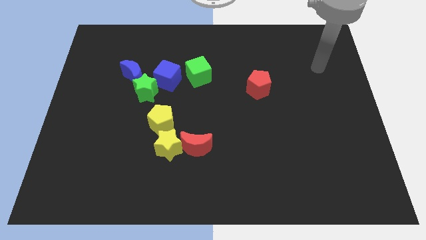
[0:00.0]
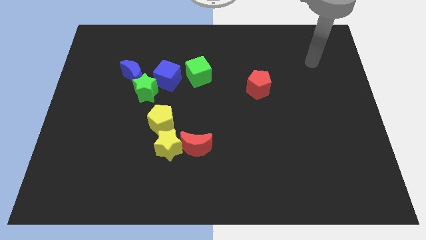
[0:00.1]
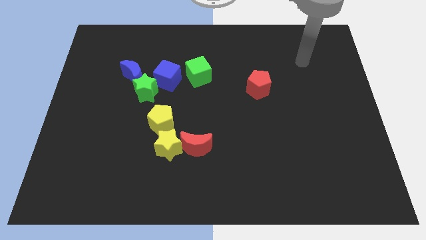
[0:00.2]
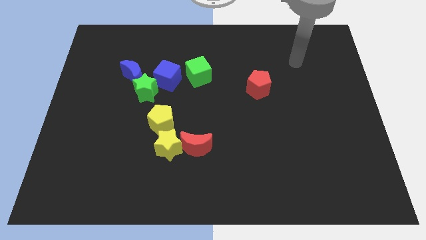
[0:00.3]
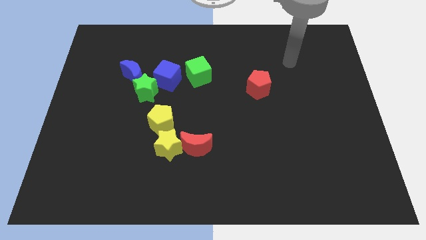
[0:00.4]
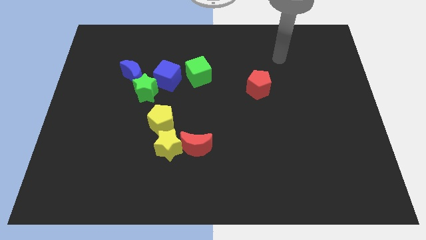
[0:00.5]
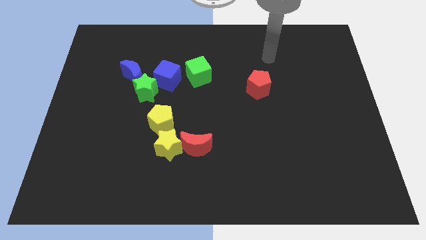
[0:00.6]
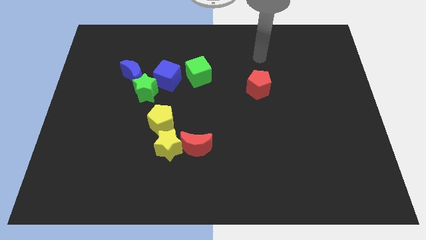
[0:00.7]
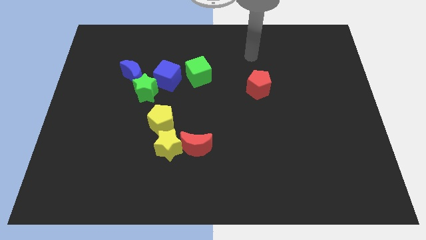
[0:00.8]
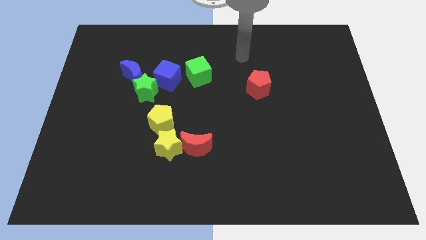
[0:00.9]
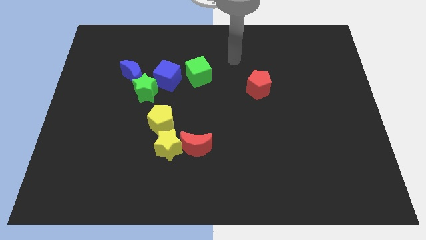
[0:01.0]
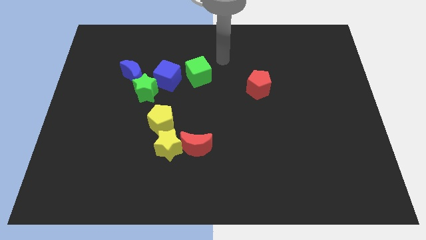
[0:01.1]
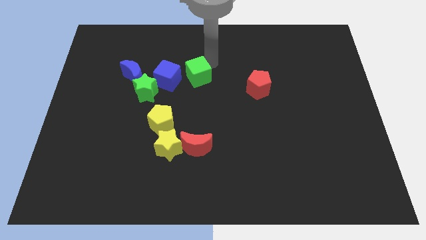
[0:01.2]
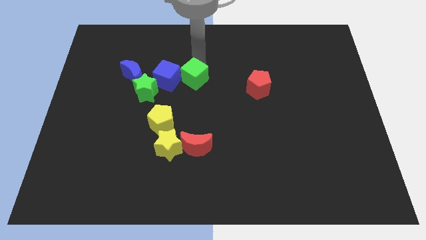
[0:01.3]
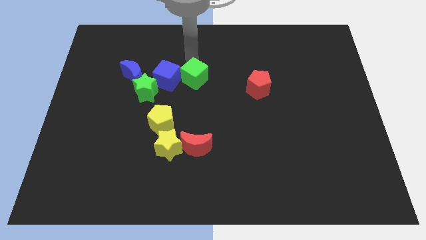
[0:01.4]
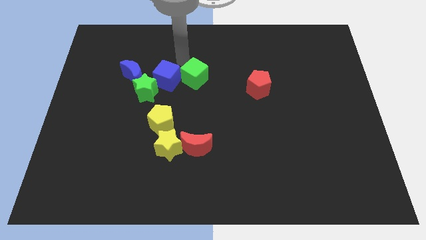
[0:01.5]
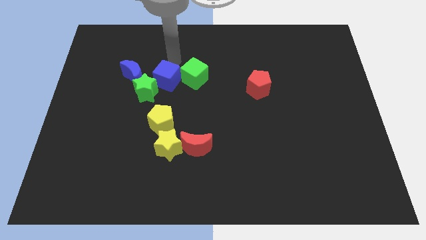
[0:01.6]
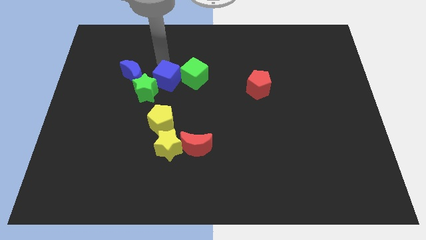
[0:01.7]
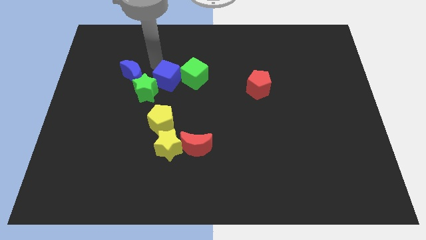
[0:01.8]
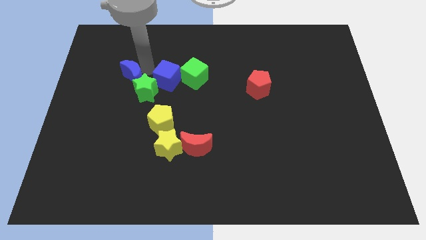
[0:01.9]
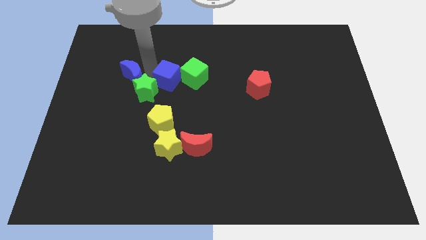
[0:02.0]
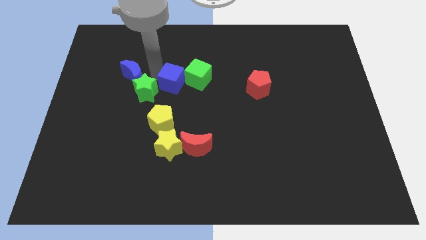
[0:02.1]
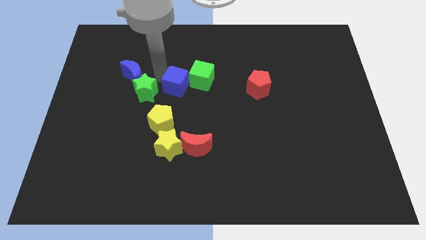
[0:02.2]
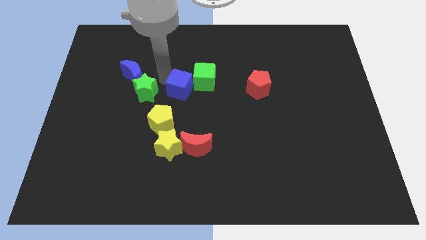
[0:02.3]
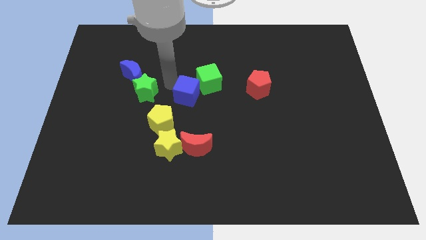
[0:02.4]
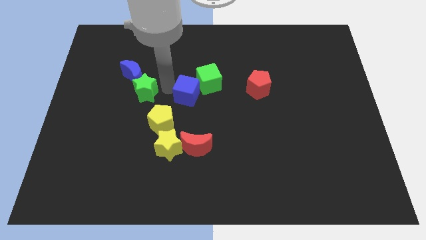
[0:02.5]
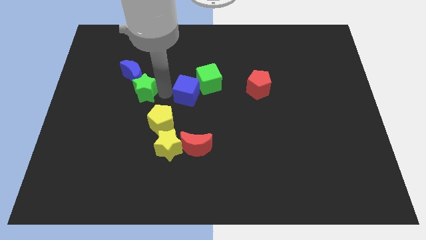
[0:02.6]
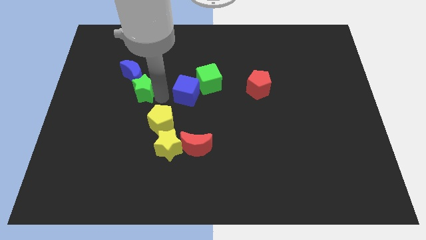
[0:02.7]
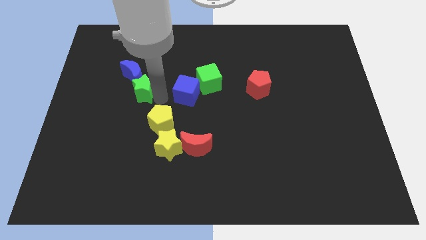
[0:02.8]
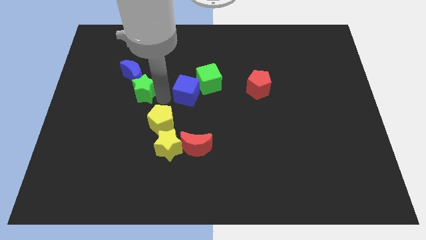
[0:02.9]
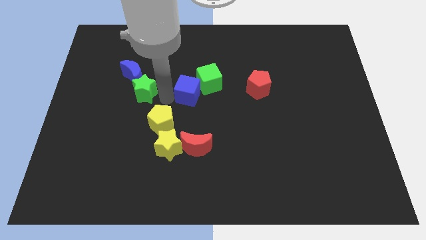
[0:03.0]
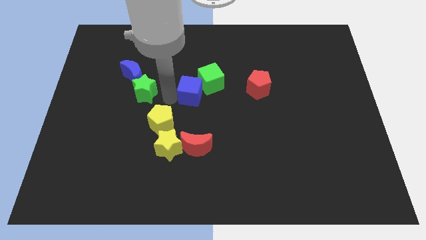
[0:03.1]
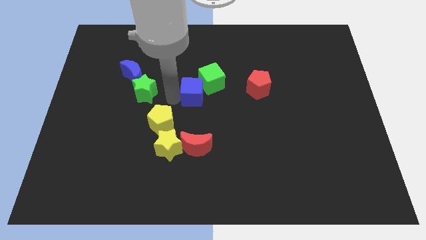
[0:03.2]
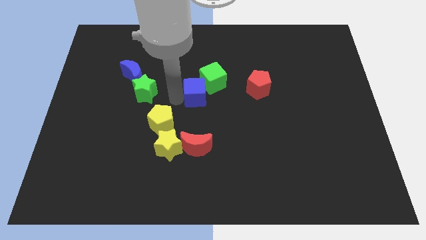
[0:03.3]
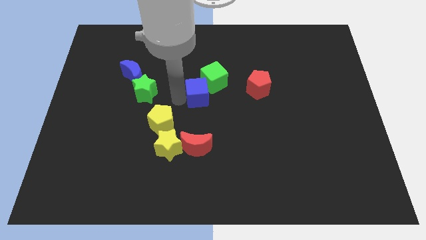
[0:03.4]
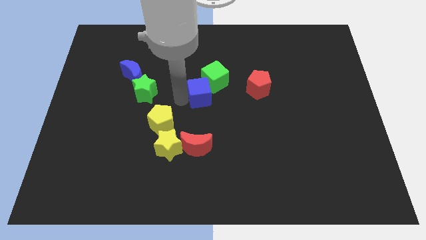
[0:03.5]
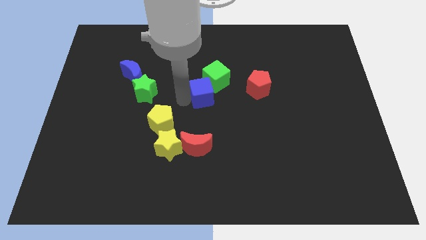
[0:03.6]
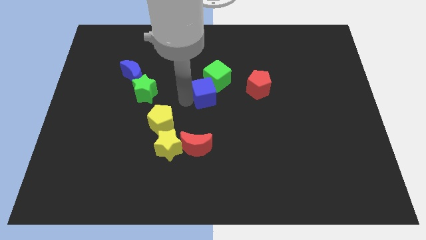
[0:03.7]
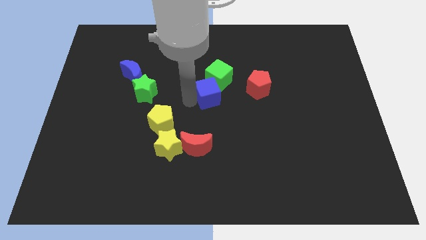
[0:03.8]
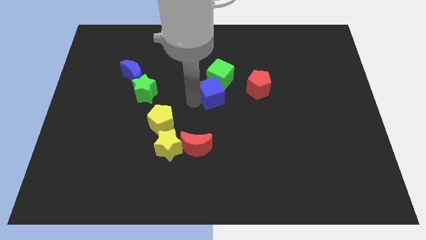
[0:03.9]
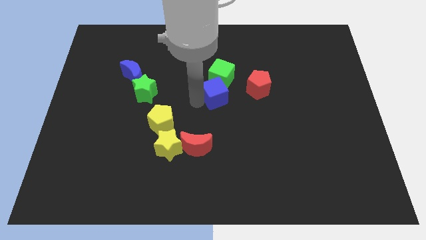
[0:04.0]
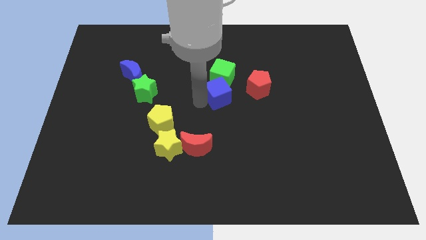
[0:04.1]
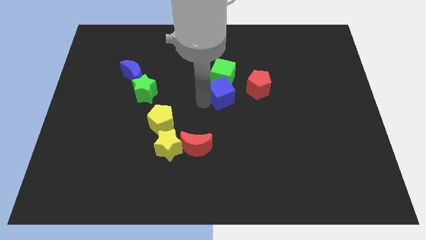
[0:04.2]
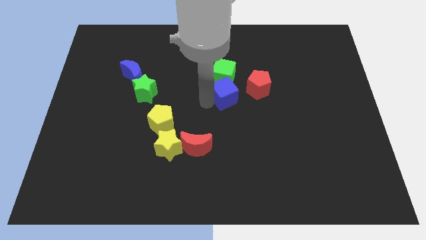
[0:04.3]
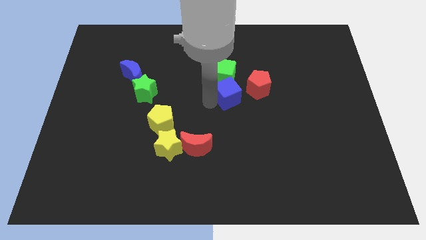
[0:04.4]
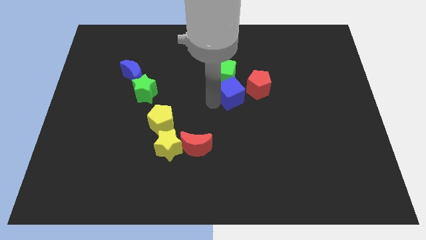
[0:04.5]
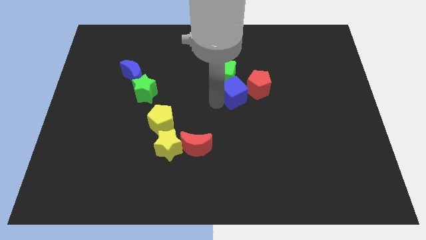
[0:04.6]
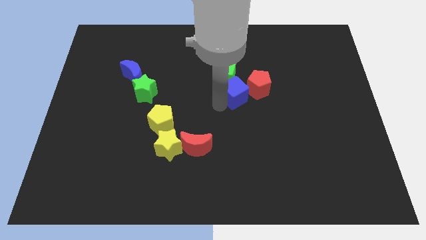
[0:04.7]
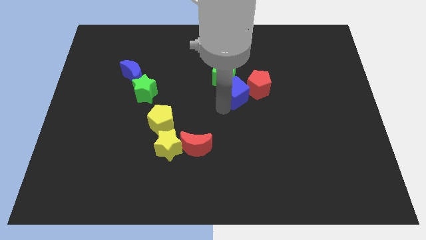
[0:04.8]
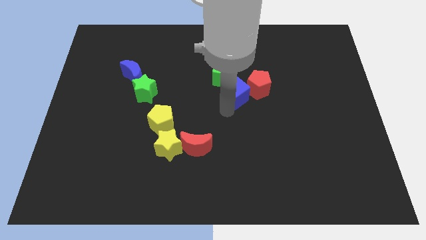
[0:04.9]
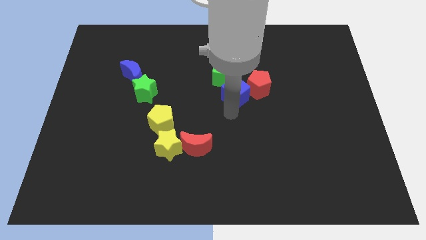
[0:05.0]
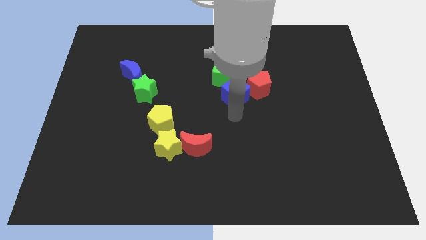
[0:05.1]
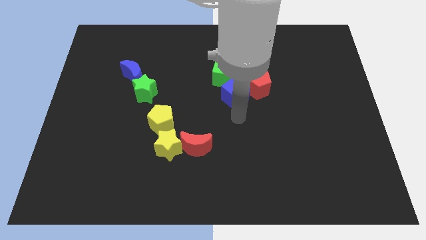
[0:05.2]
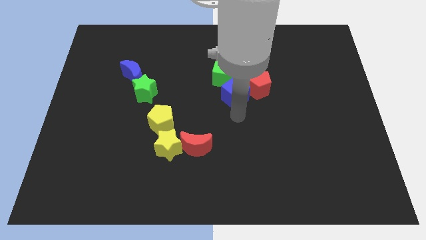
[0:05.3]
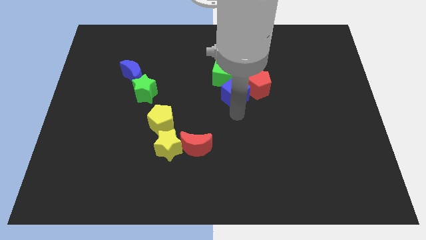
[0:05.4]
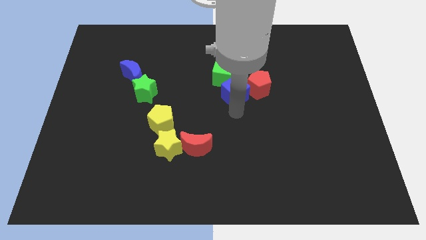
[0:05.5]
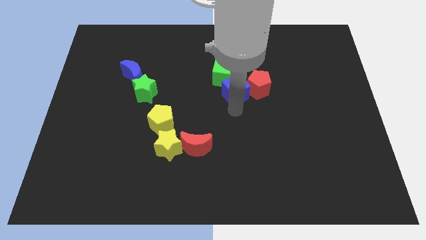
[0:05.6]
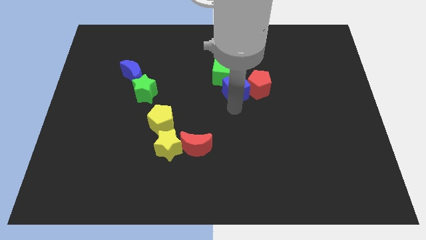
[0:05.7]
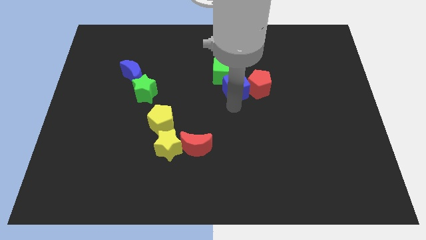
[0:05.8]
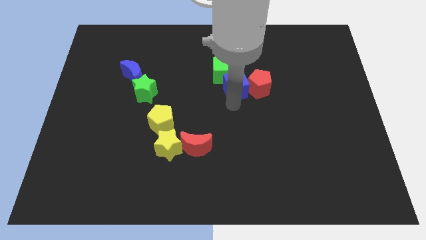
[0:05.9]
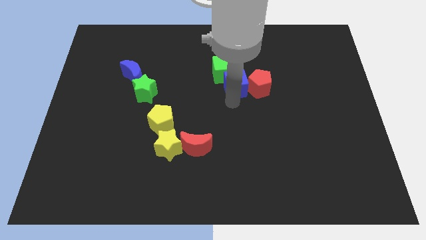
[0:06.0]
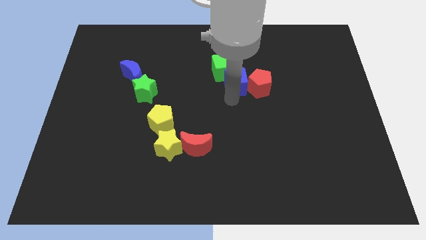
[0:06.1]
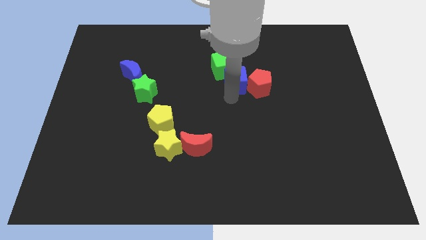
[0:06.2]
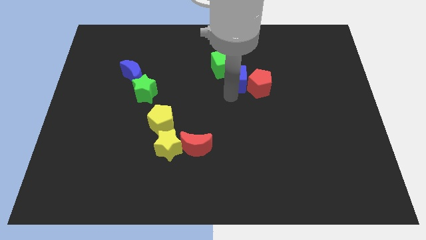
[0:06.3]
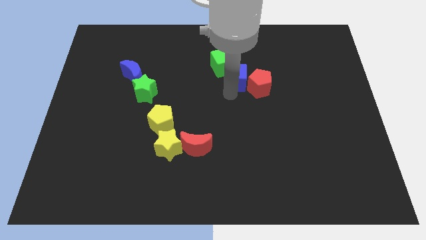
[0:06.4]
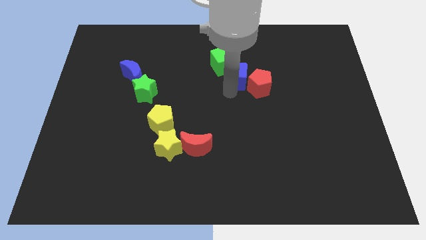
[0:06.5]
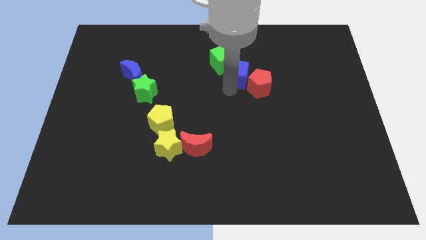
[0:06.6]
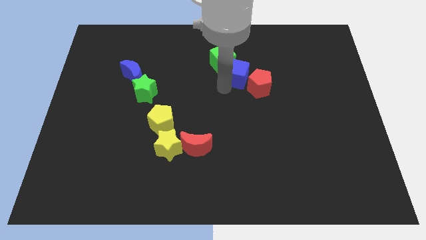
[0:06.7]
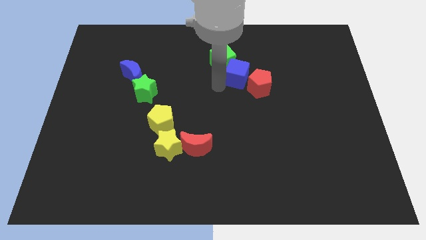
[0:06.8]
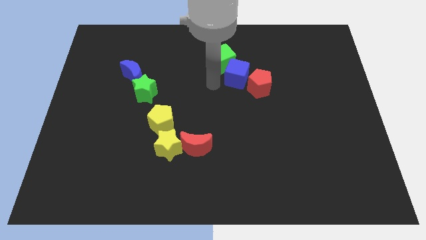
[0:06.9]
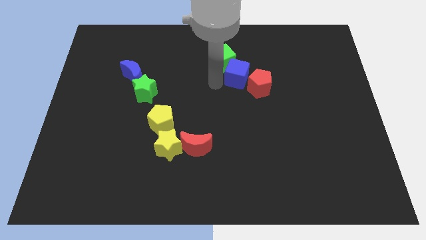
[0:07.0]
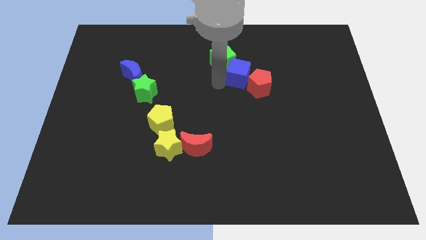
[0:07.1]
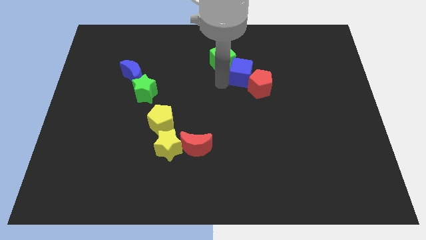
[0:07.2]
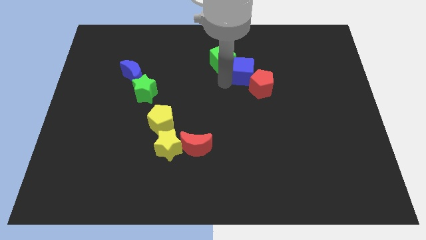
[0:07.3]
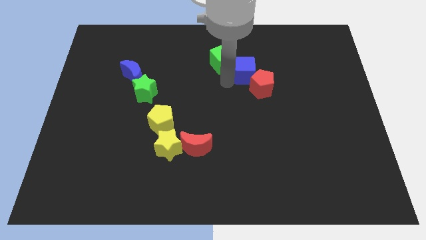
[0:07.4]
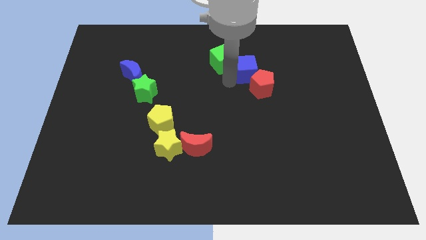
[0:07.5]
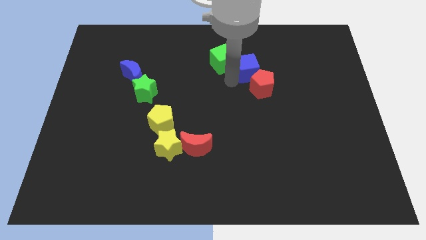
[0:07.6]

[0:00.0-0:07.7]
move the blue cube to the right

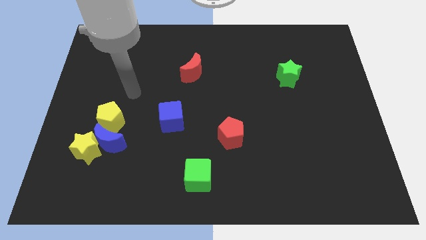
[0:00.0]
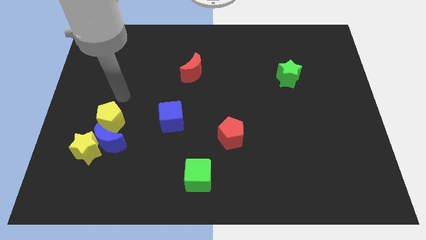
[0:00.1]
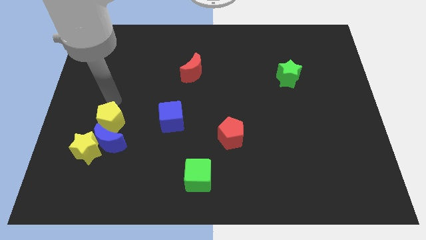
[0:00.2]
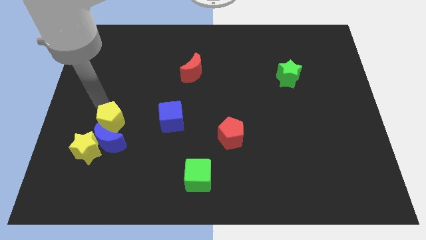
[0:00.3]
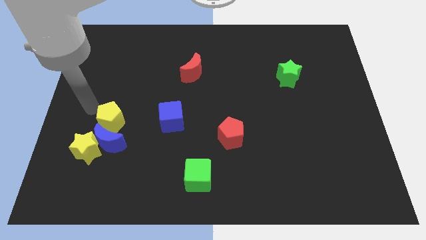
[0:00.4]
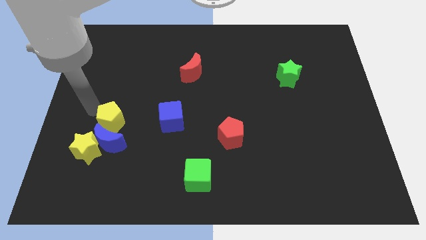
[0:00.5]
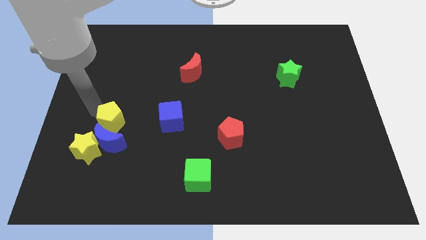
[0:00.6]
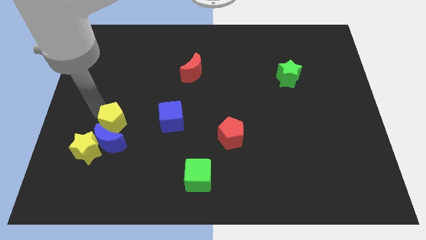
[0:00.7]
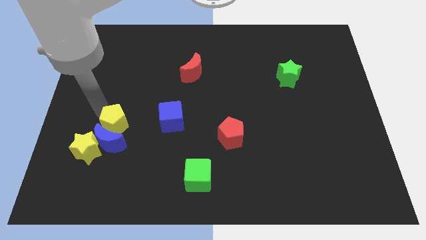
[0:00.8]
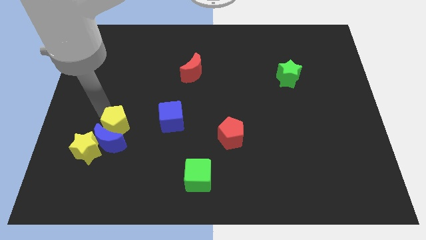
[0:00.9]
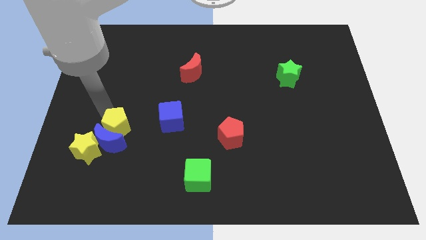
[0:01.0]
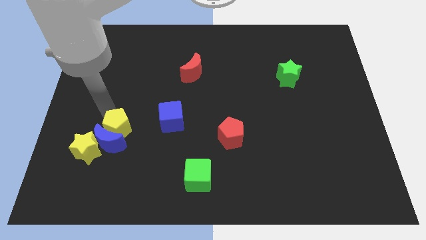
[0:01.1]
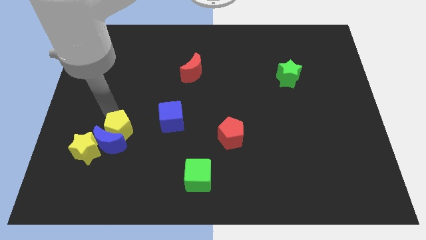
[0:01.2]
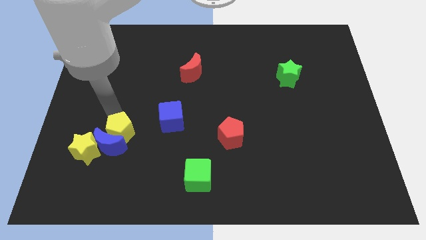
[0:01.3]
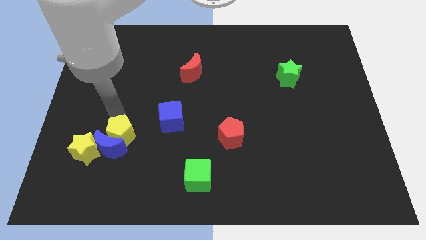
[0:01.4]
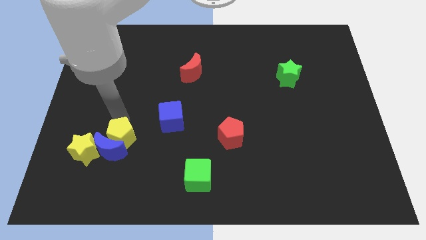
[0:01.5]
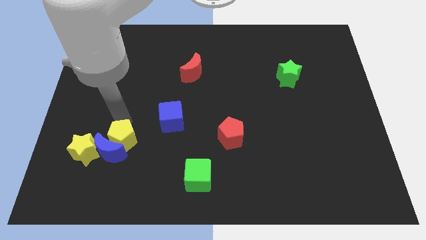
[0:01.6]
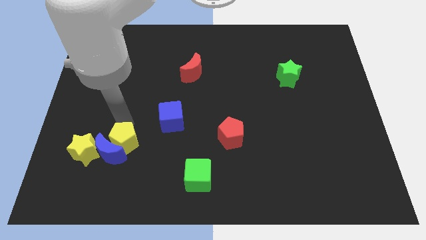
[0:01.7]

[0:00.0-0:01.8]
push the yellow pentagon diagonally downwards and right slightly
